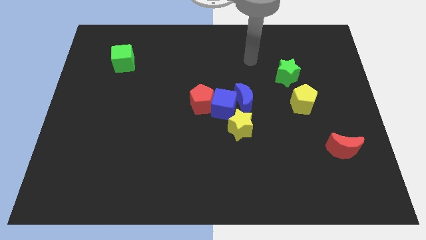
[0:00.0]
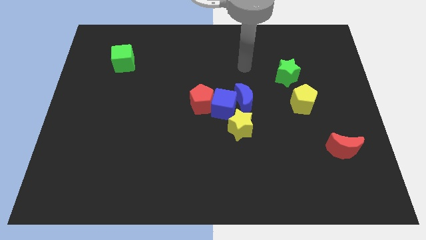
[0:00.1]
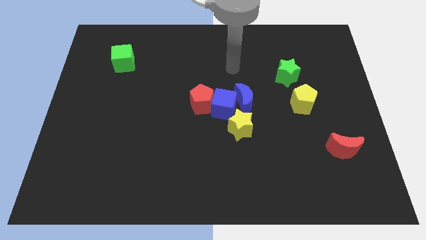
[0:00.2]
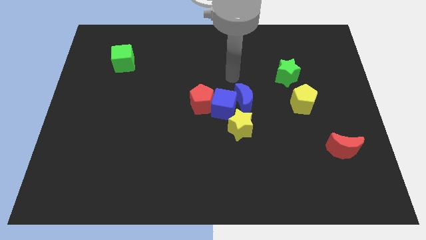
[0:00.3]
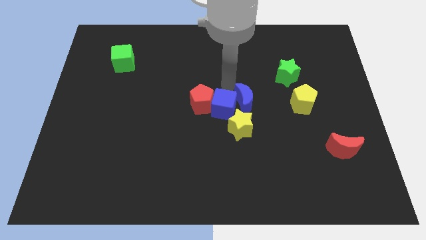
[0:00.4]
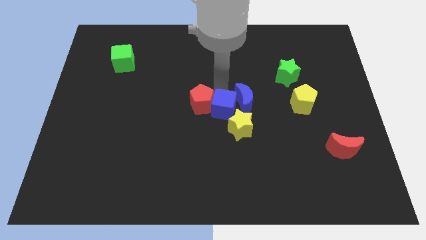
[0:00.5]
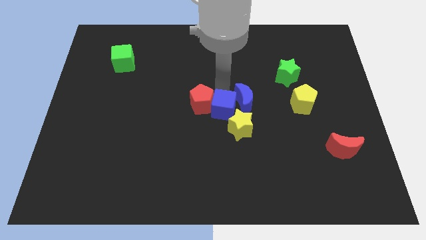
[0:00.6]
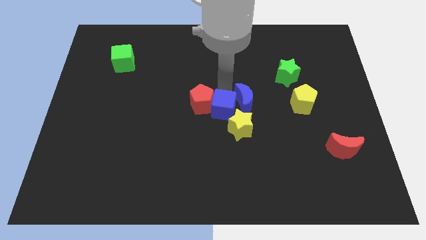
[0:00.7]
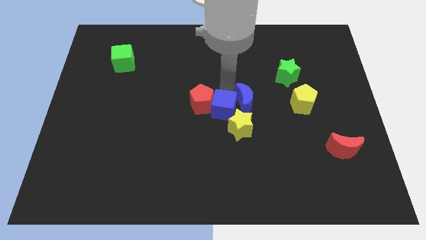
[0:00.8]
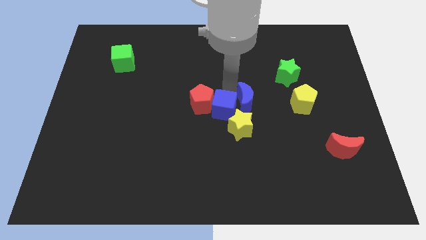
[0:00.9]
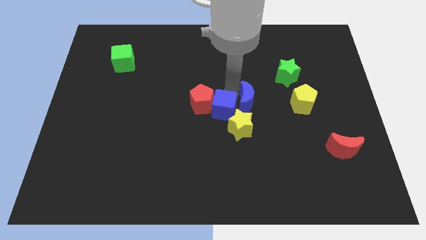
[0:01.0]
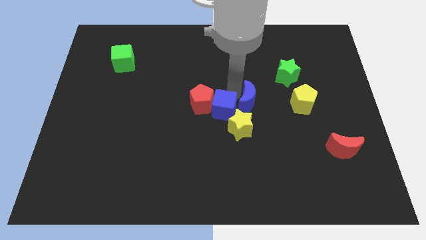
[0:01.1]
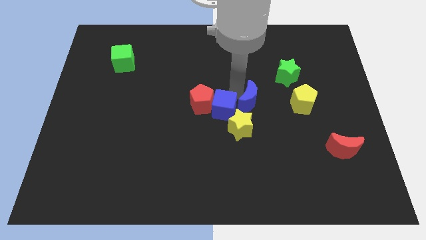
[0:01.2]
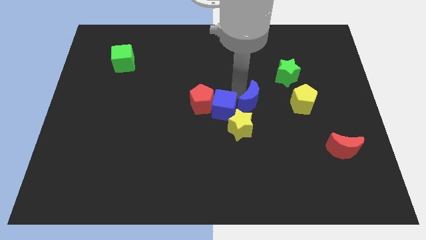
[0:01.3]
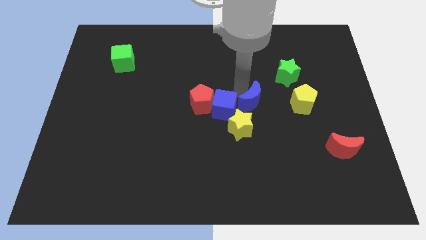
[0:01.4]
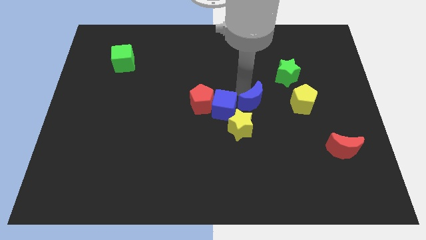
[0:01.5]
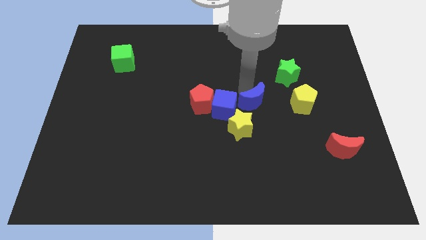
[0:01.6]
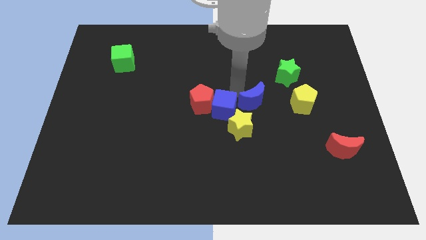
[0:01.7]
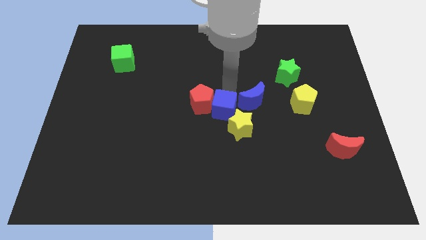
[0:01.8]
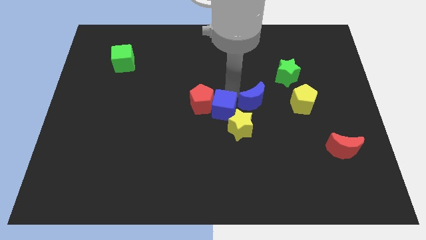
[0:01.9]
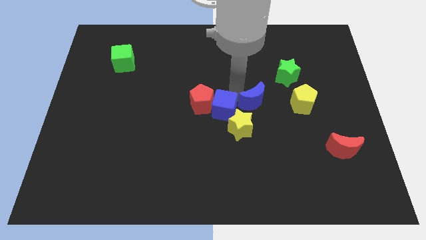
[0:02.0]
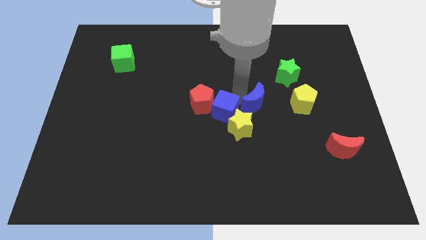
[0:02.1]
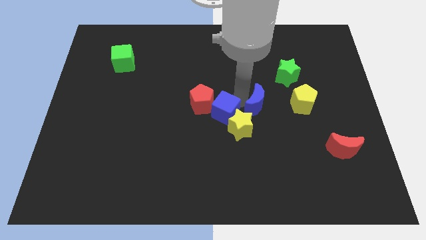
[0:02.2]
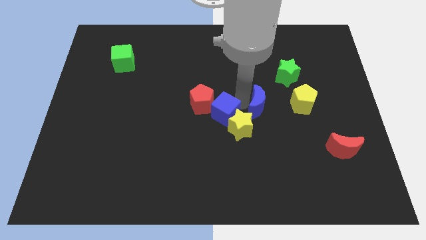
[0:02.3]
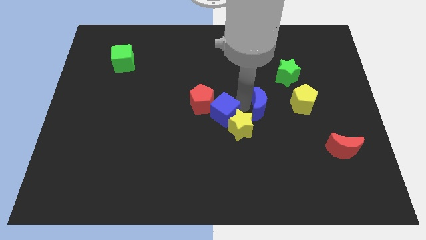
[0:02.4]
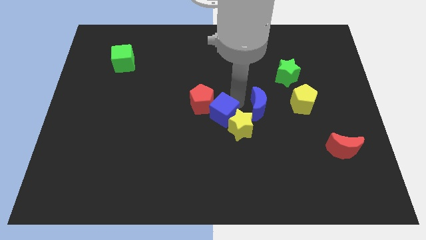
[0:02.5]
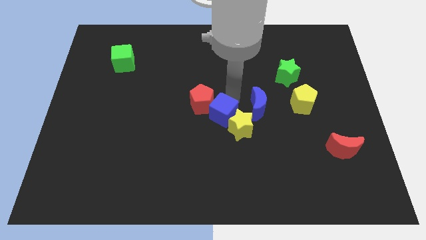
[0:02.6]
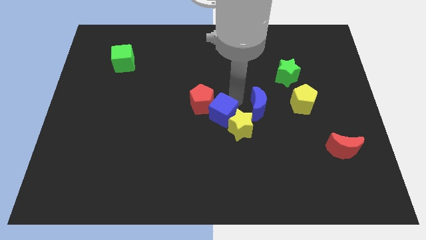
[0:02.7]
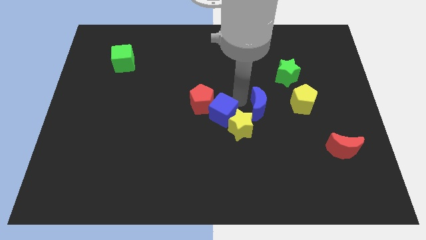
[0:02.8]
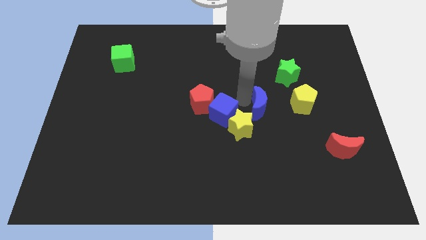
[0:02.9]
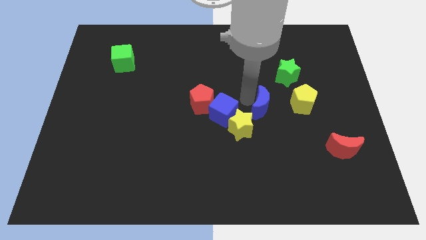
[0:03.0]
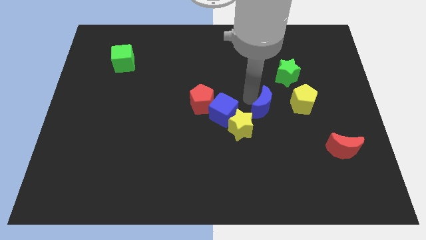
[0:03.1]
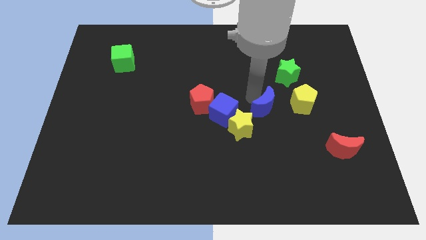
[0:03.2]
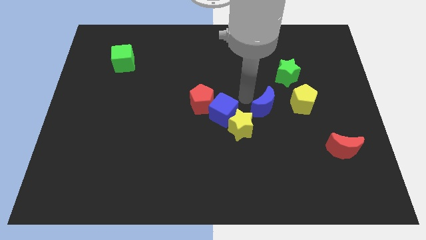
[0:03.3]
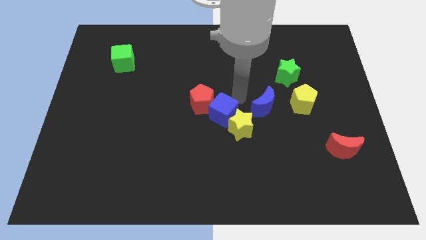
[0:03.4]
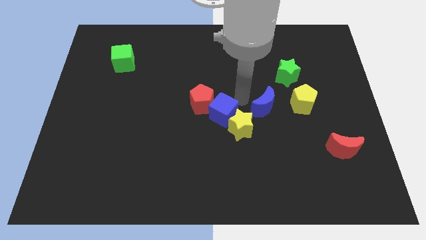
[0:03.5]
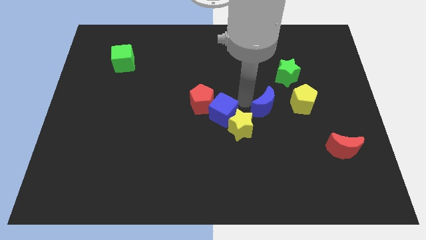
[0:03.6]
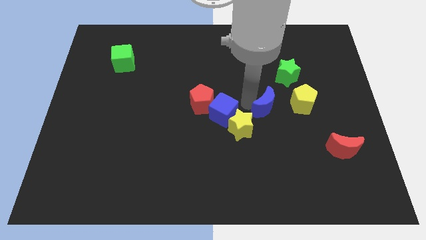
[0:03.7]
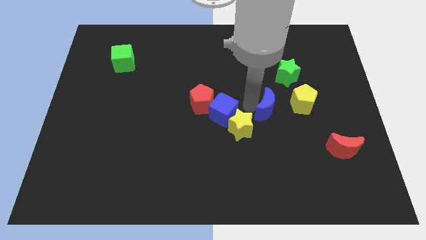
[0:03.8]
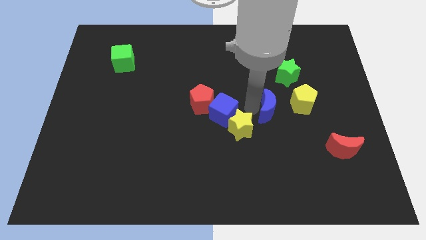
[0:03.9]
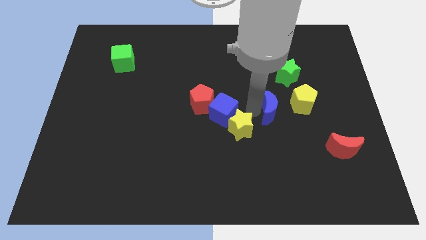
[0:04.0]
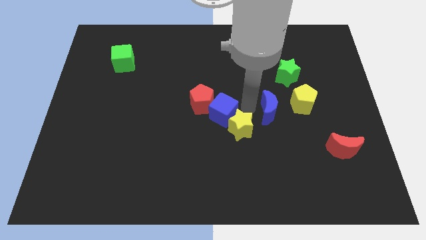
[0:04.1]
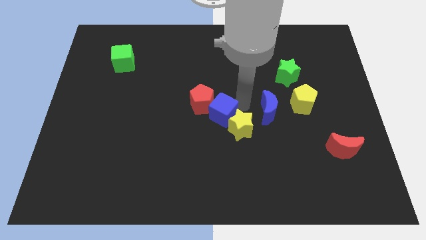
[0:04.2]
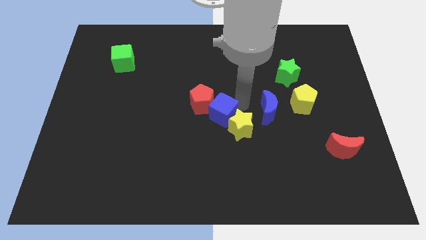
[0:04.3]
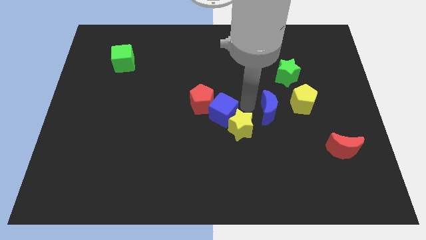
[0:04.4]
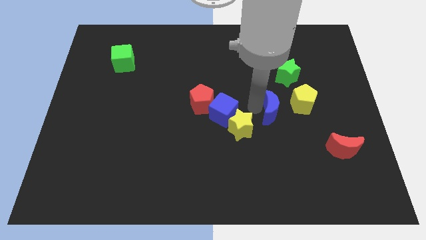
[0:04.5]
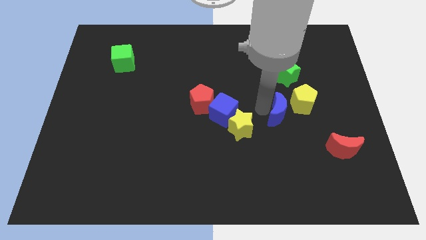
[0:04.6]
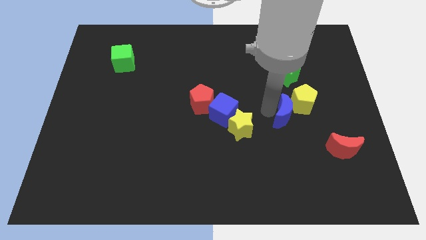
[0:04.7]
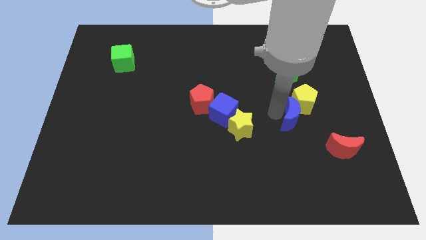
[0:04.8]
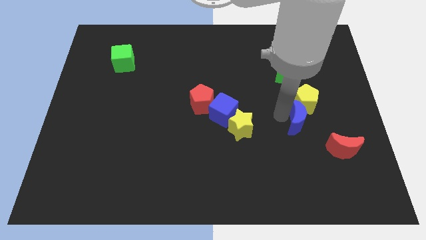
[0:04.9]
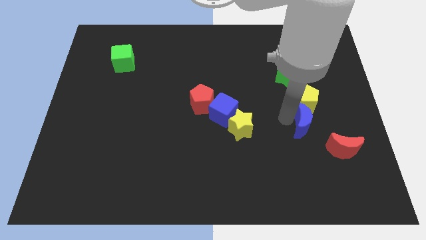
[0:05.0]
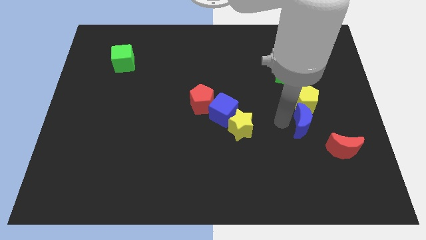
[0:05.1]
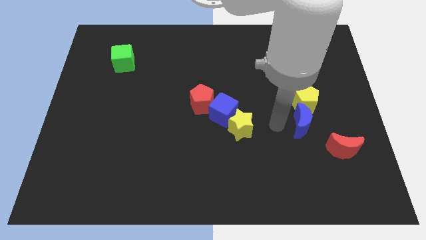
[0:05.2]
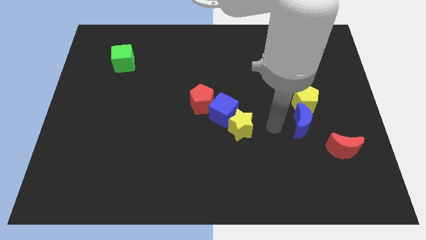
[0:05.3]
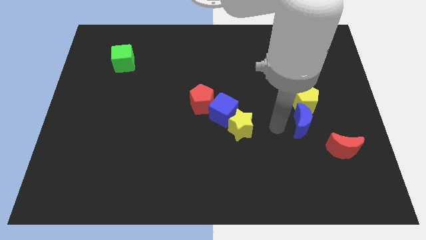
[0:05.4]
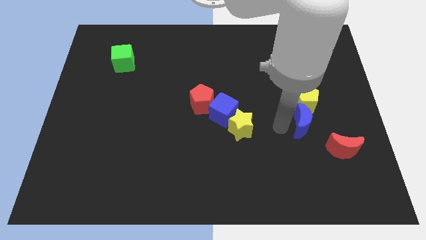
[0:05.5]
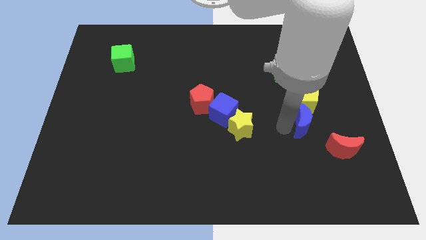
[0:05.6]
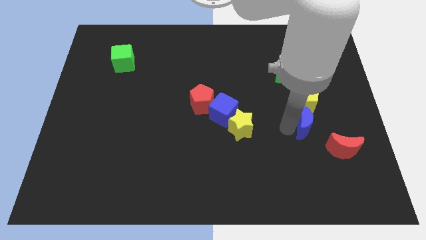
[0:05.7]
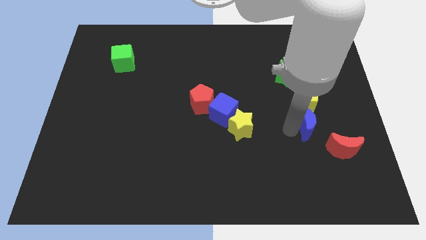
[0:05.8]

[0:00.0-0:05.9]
slide the blue moon to the bottom right of the yellow pentagon
